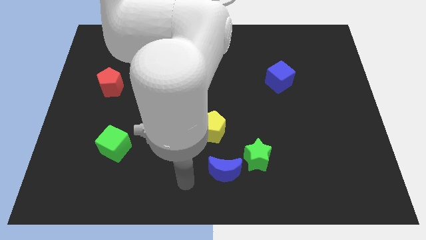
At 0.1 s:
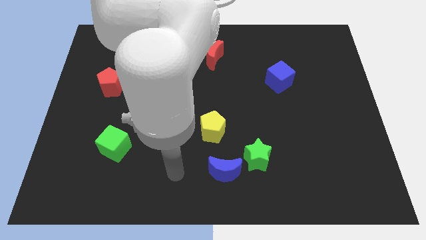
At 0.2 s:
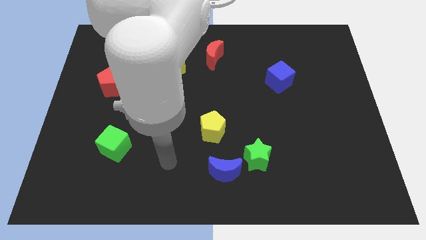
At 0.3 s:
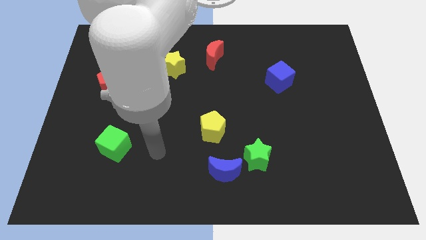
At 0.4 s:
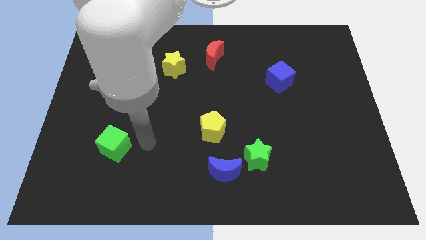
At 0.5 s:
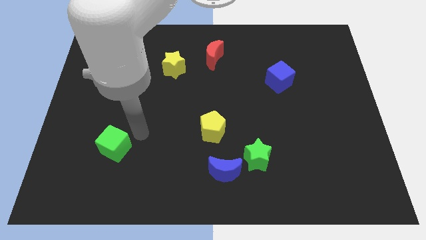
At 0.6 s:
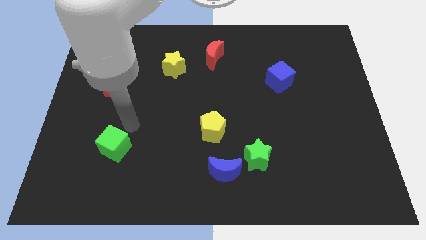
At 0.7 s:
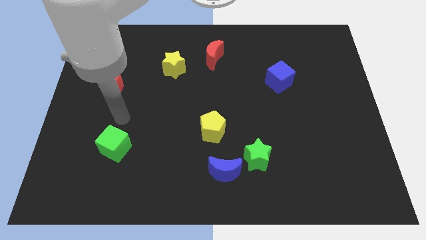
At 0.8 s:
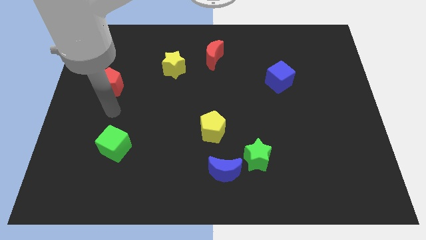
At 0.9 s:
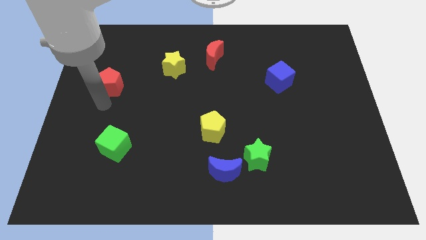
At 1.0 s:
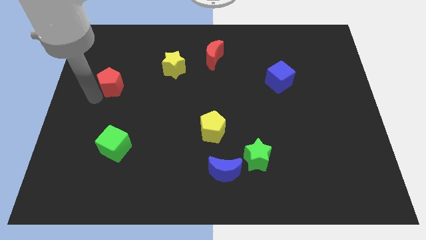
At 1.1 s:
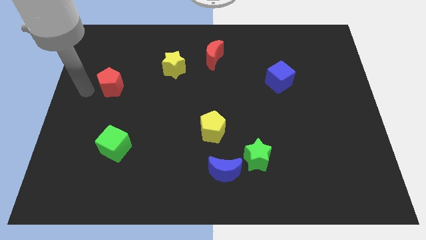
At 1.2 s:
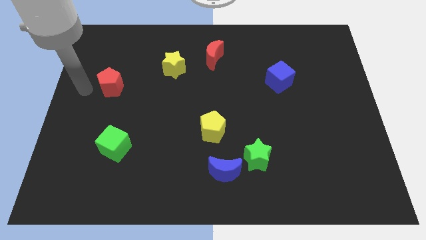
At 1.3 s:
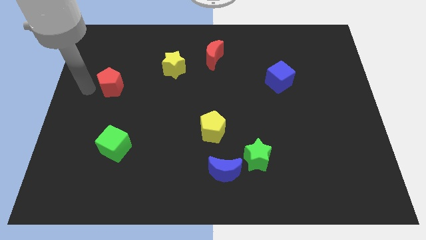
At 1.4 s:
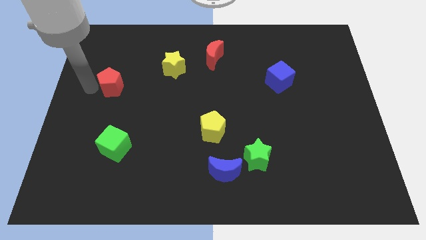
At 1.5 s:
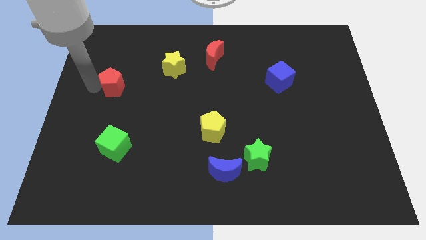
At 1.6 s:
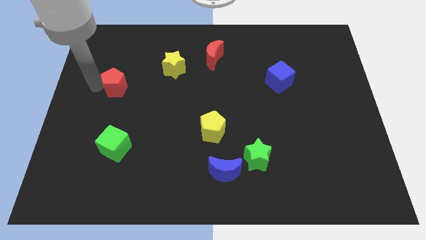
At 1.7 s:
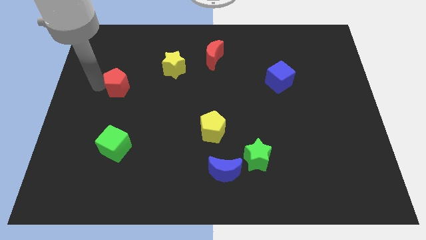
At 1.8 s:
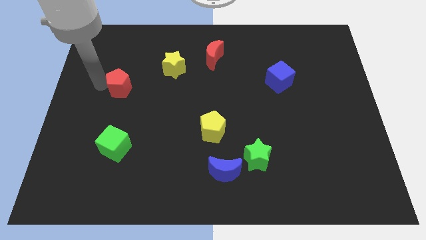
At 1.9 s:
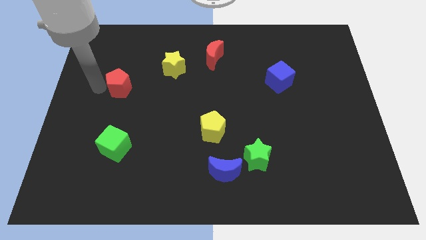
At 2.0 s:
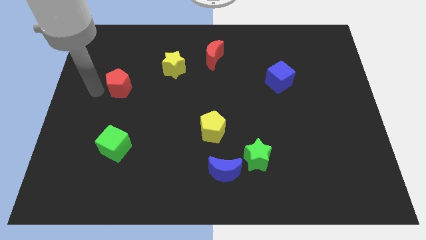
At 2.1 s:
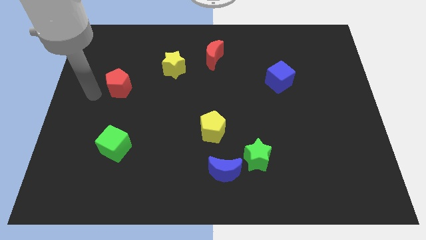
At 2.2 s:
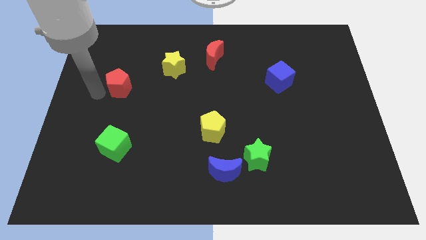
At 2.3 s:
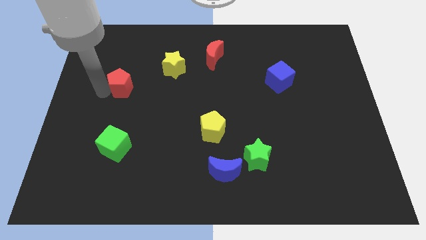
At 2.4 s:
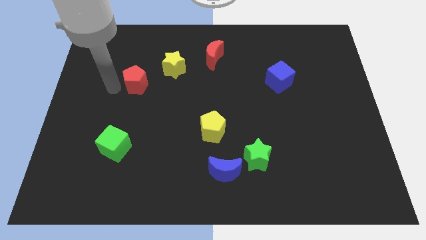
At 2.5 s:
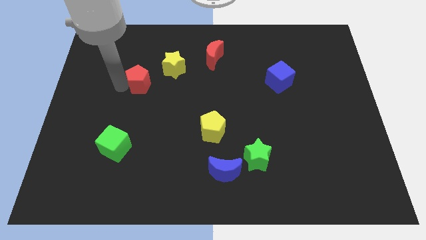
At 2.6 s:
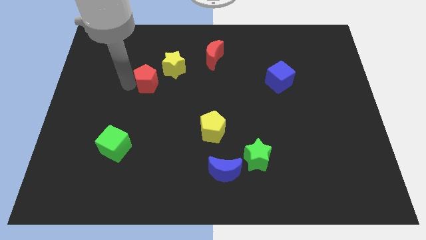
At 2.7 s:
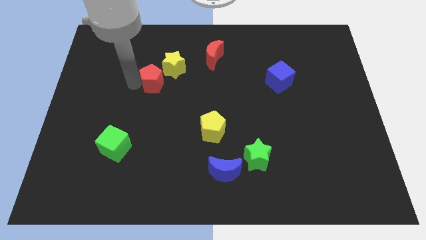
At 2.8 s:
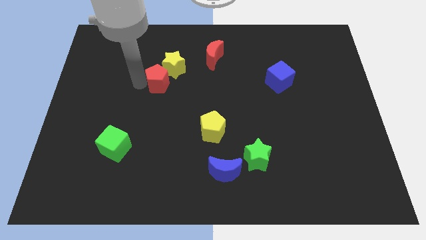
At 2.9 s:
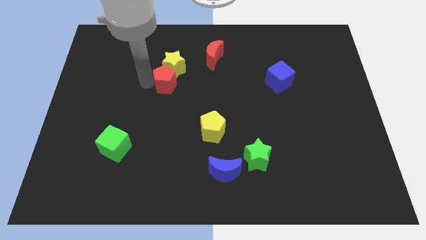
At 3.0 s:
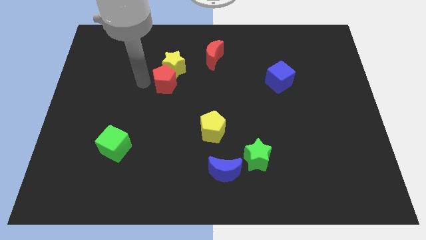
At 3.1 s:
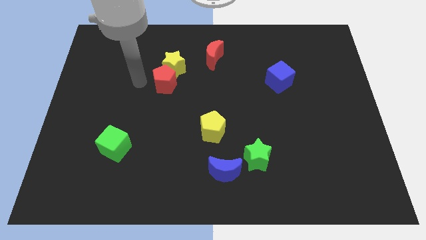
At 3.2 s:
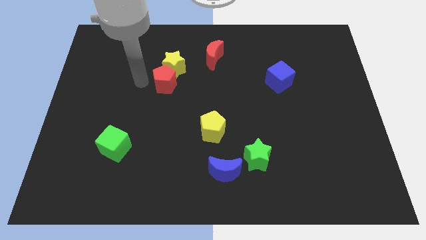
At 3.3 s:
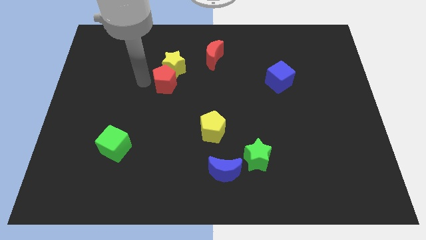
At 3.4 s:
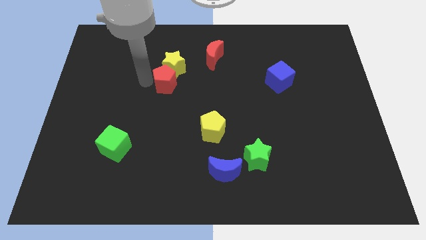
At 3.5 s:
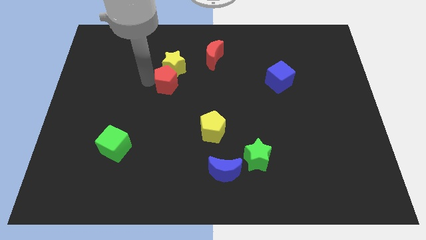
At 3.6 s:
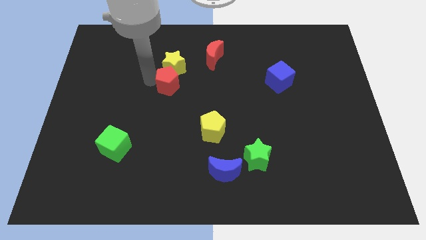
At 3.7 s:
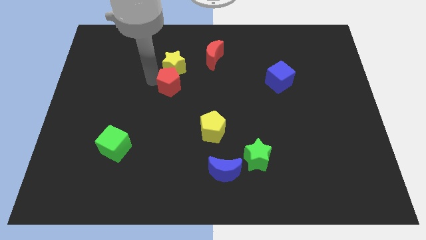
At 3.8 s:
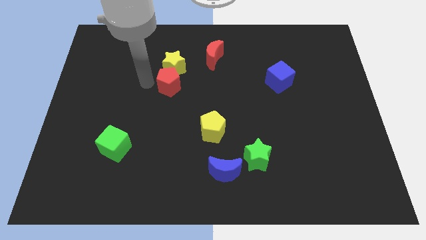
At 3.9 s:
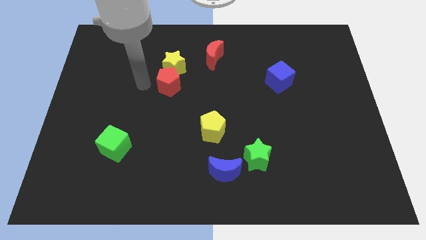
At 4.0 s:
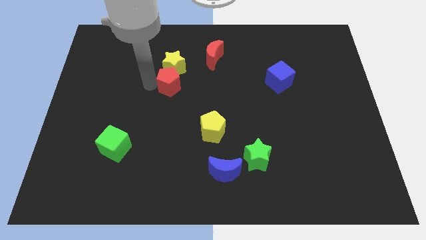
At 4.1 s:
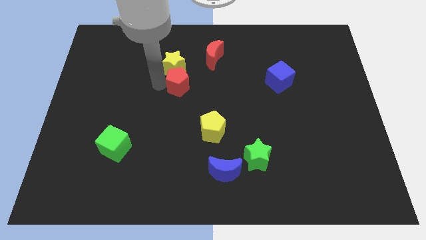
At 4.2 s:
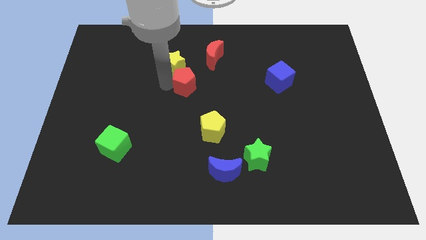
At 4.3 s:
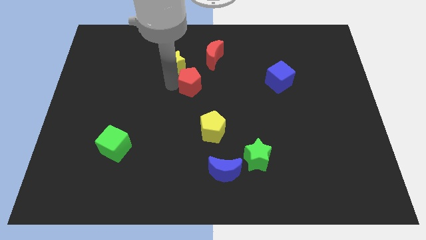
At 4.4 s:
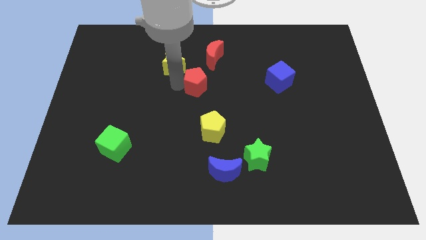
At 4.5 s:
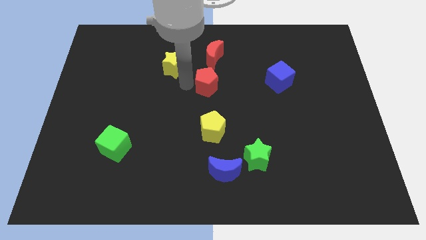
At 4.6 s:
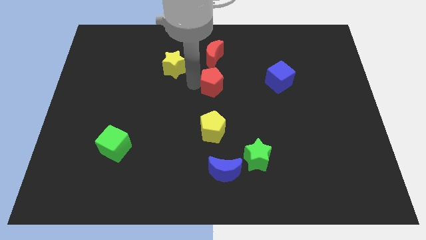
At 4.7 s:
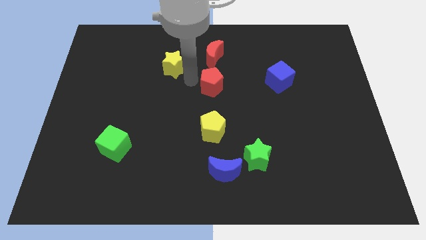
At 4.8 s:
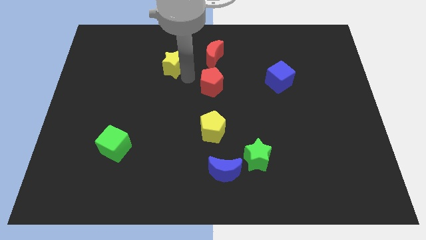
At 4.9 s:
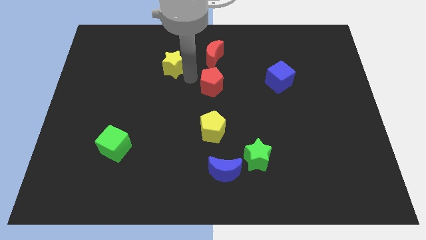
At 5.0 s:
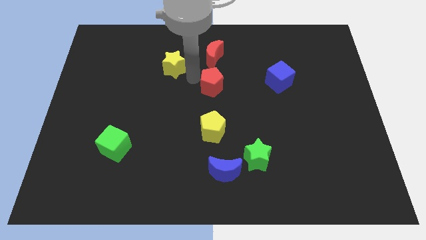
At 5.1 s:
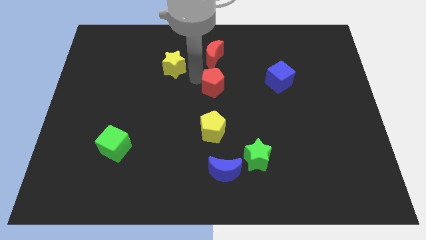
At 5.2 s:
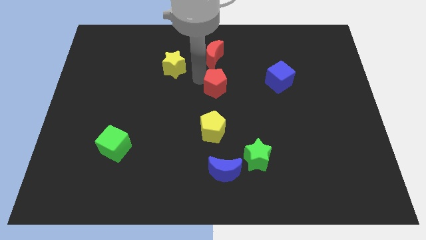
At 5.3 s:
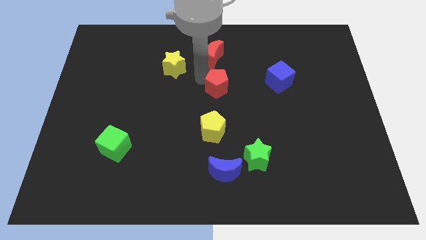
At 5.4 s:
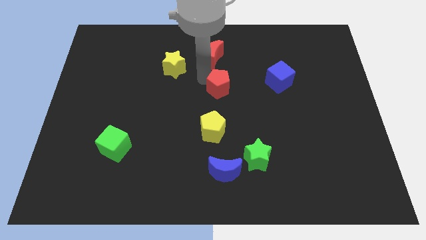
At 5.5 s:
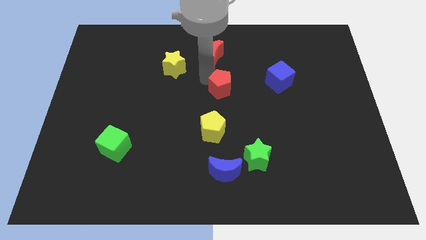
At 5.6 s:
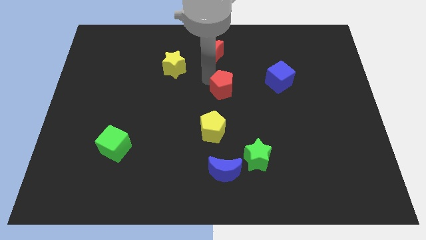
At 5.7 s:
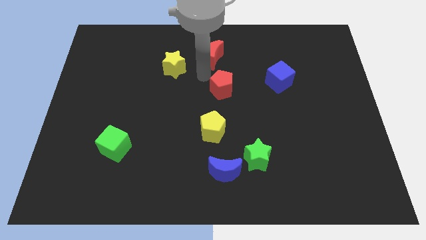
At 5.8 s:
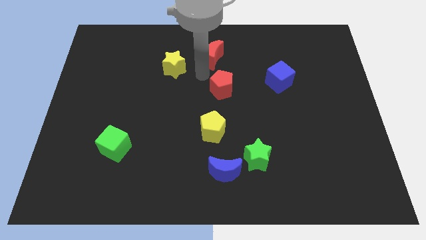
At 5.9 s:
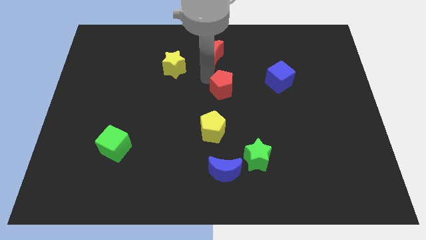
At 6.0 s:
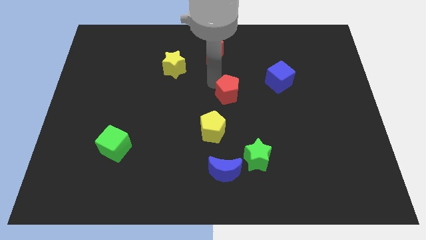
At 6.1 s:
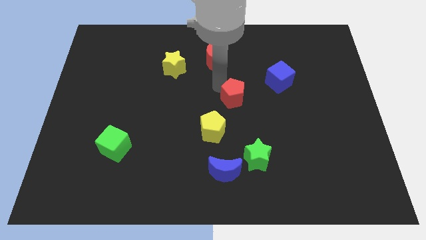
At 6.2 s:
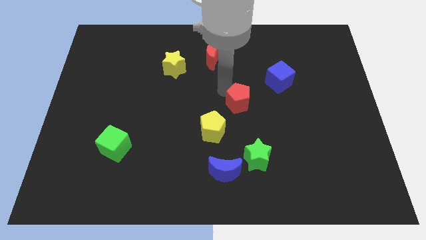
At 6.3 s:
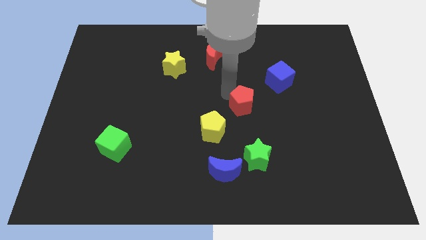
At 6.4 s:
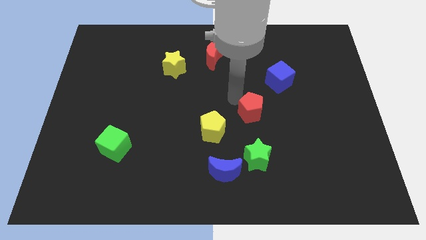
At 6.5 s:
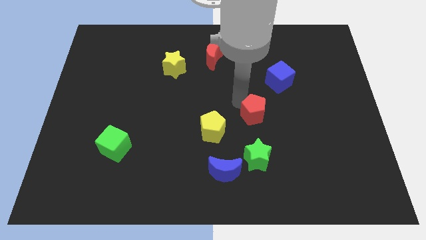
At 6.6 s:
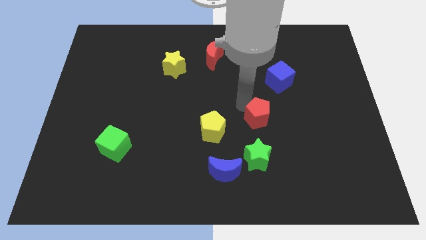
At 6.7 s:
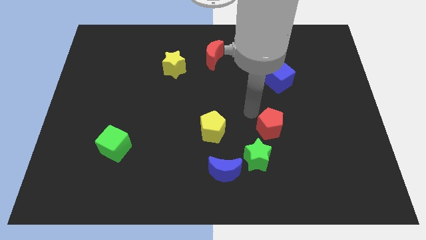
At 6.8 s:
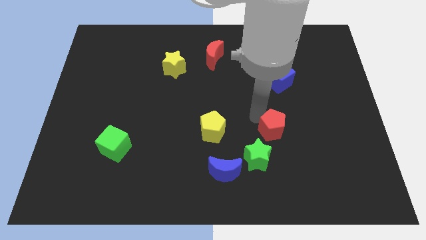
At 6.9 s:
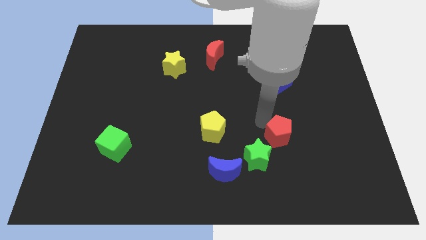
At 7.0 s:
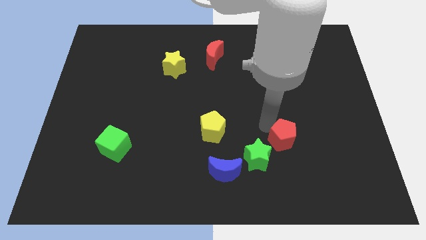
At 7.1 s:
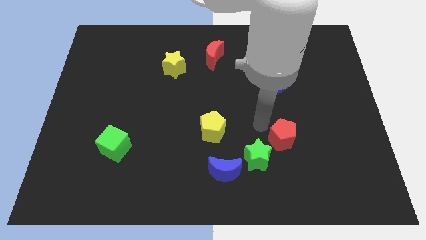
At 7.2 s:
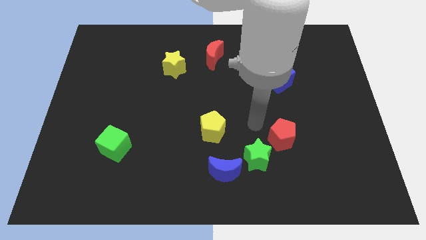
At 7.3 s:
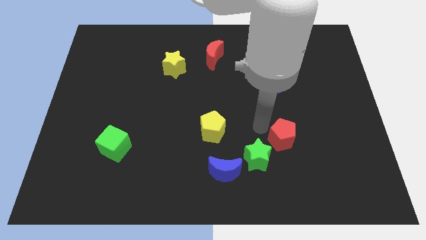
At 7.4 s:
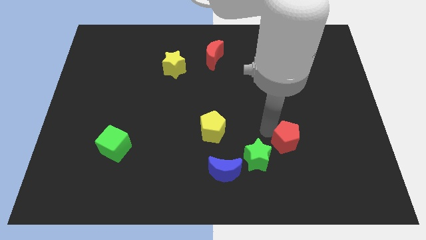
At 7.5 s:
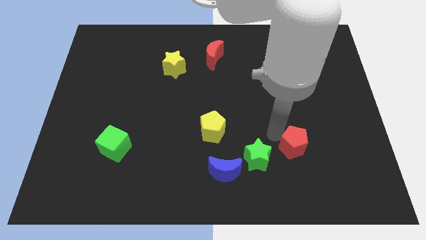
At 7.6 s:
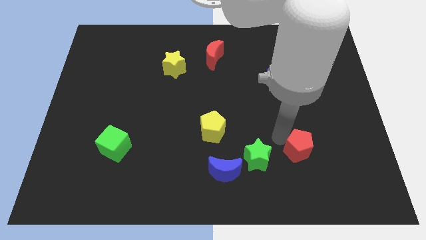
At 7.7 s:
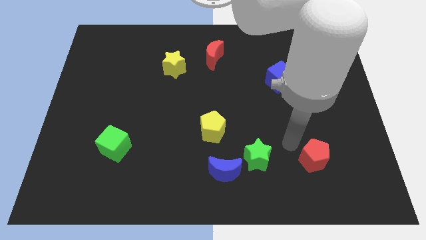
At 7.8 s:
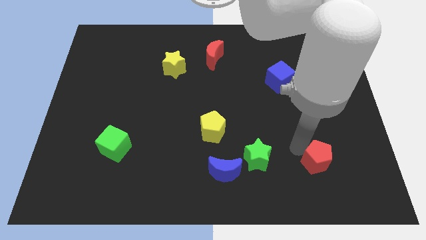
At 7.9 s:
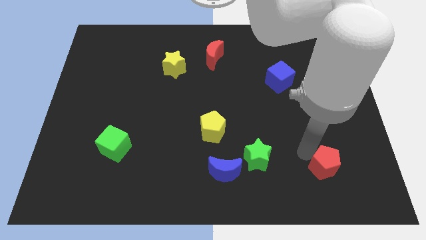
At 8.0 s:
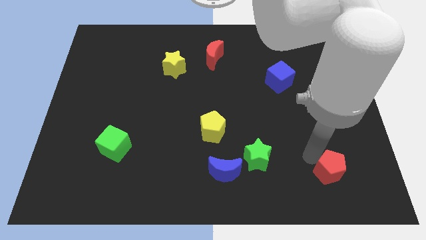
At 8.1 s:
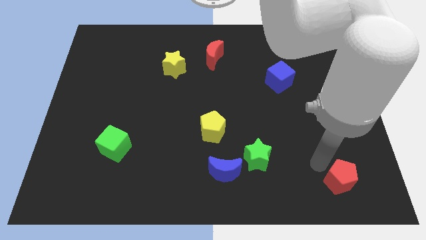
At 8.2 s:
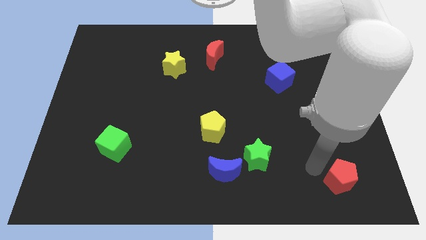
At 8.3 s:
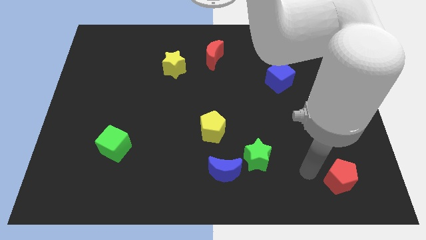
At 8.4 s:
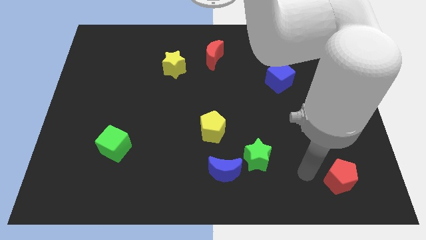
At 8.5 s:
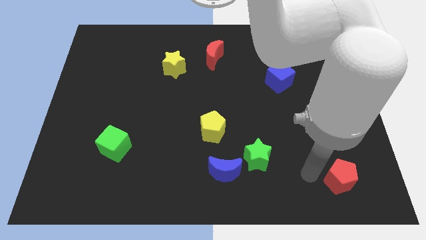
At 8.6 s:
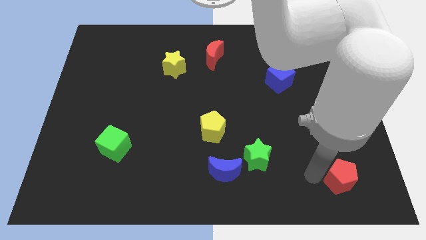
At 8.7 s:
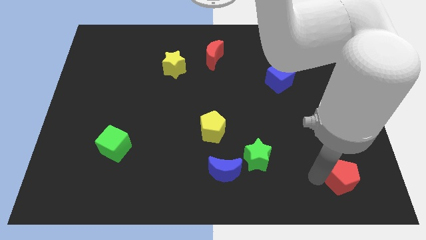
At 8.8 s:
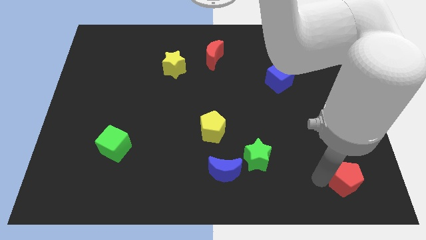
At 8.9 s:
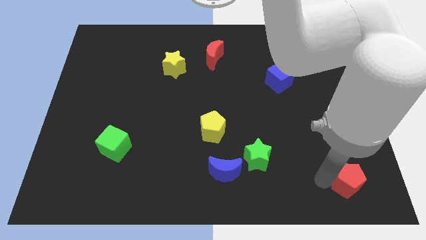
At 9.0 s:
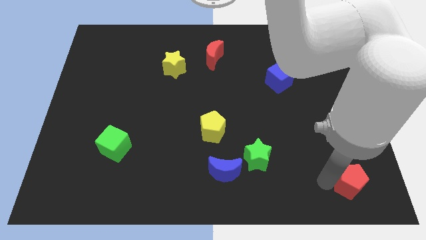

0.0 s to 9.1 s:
move the red pentagon to the bottom right of the board
